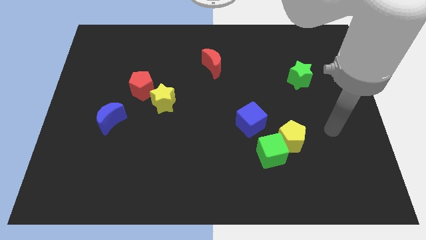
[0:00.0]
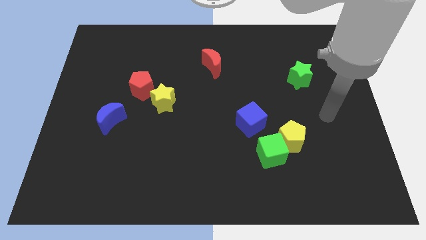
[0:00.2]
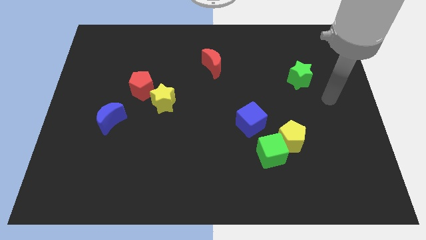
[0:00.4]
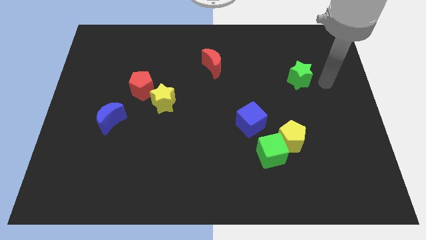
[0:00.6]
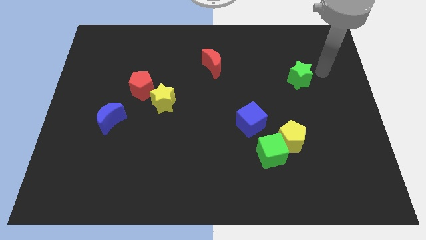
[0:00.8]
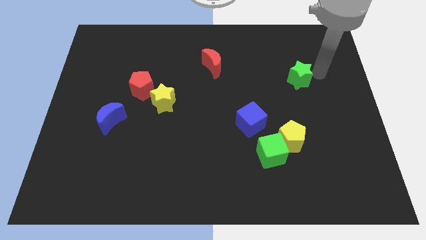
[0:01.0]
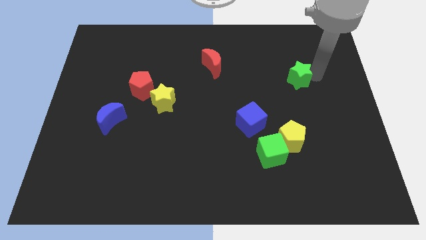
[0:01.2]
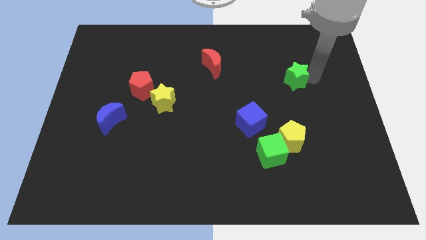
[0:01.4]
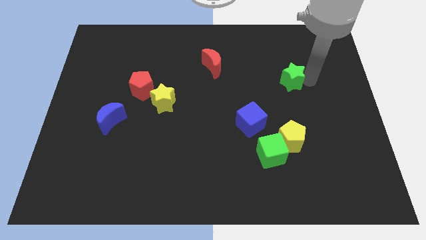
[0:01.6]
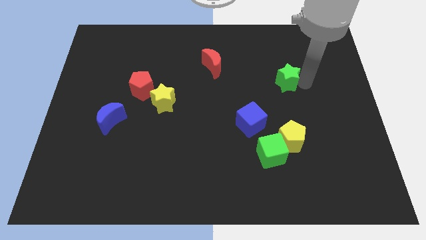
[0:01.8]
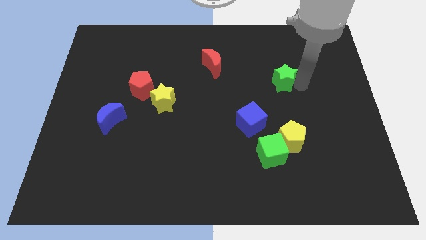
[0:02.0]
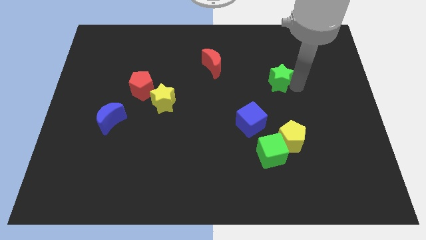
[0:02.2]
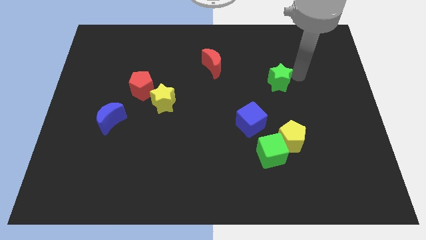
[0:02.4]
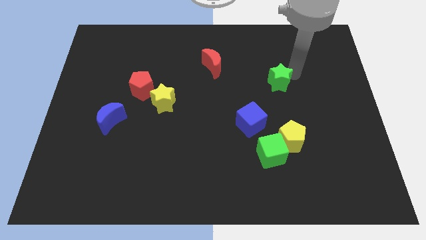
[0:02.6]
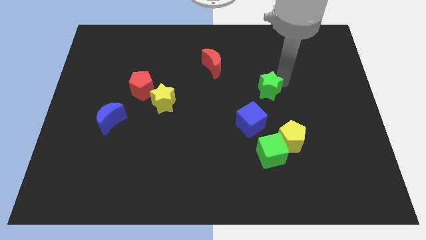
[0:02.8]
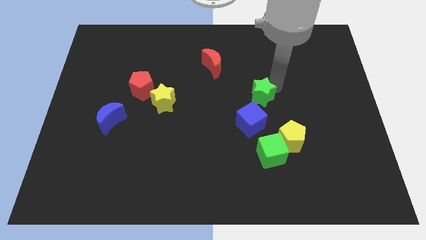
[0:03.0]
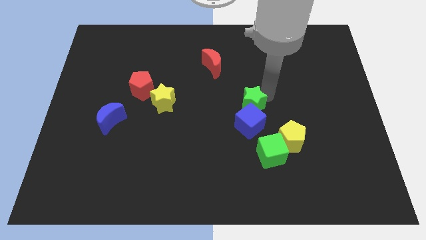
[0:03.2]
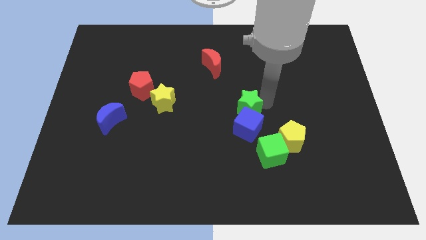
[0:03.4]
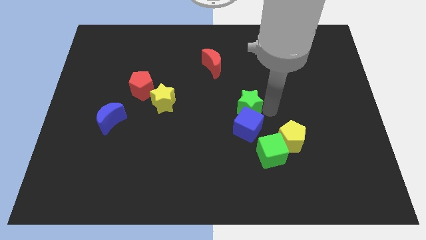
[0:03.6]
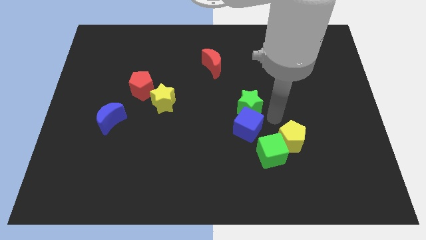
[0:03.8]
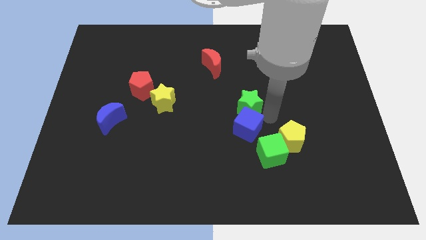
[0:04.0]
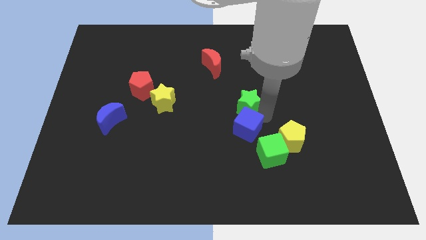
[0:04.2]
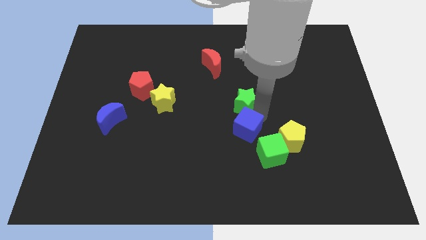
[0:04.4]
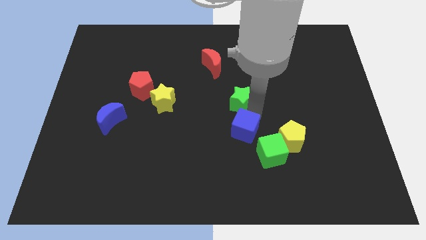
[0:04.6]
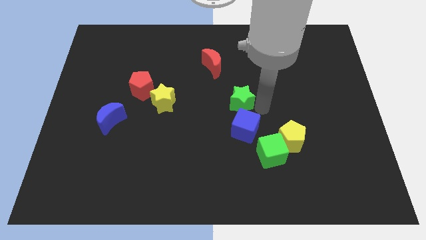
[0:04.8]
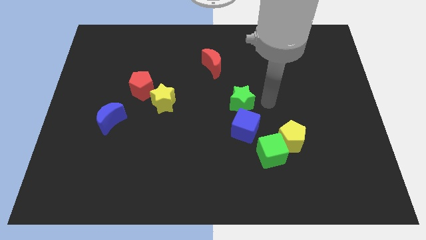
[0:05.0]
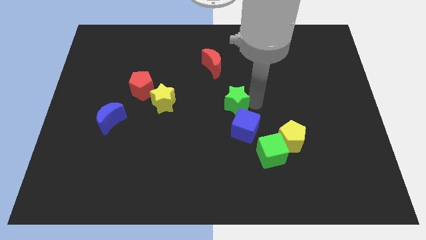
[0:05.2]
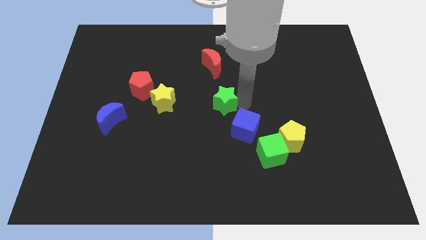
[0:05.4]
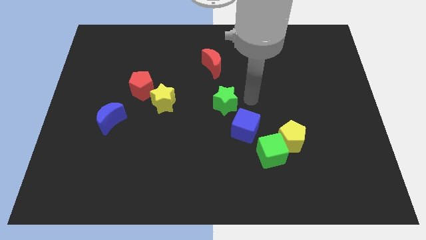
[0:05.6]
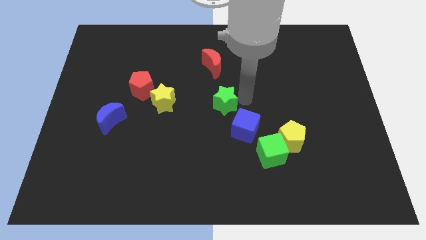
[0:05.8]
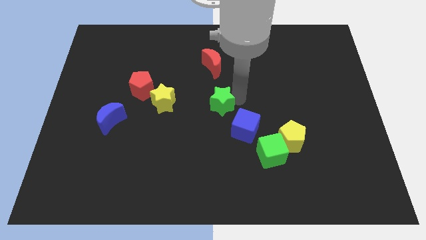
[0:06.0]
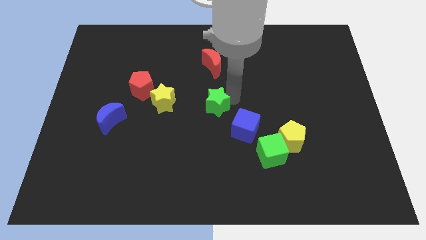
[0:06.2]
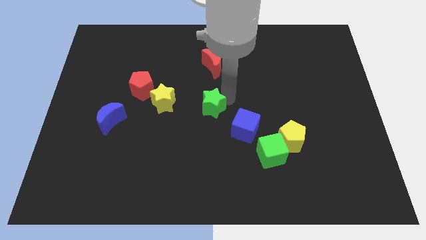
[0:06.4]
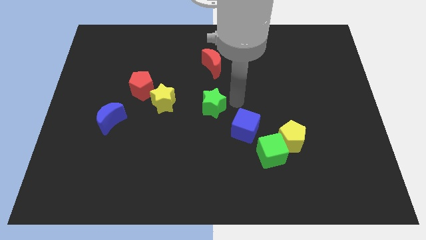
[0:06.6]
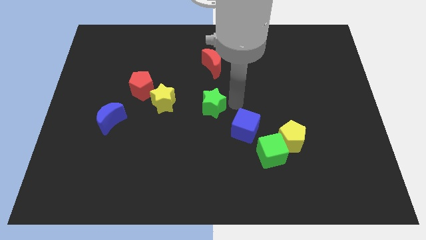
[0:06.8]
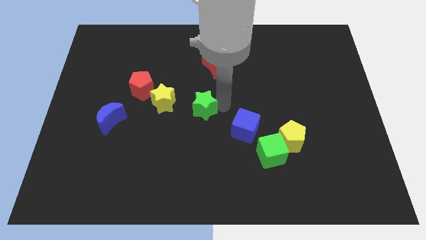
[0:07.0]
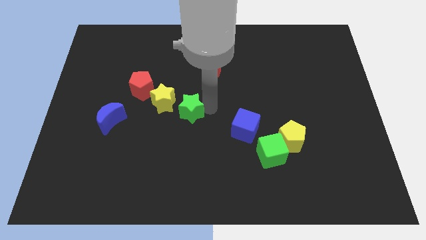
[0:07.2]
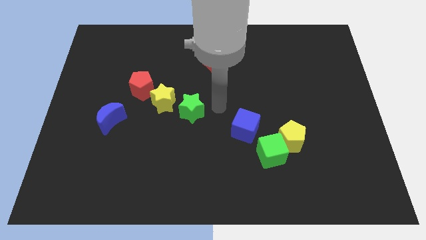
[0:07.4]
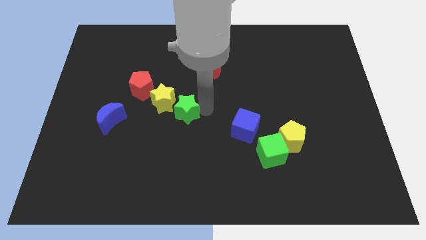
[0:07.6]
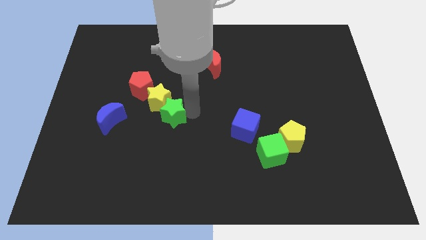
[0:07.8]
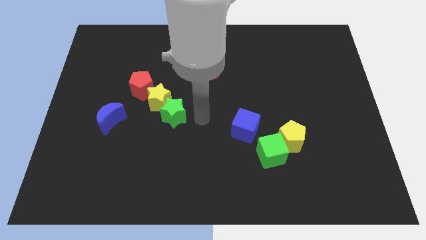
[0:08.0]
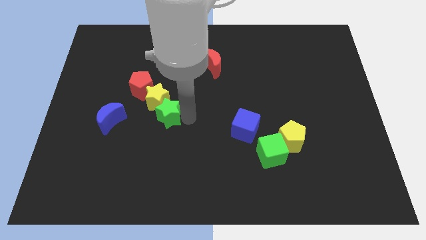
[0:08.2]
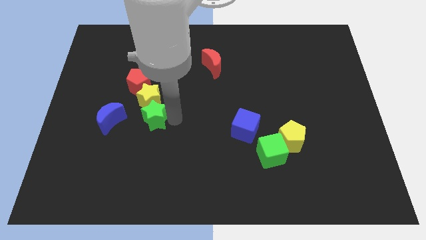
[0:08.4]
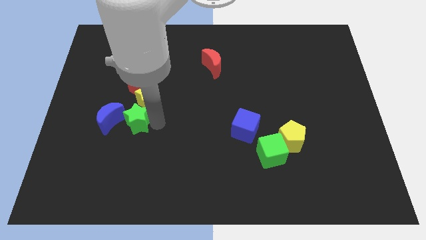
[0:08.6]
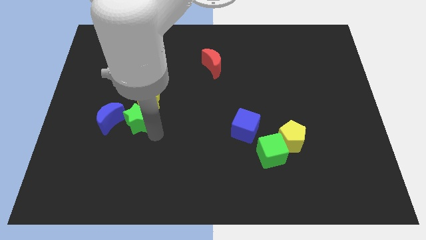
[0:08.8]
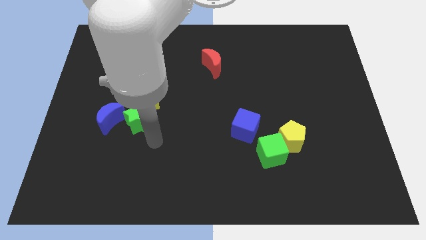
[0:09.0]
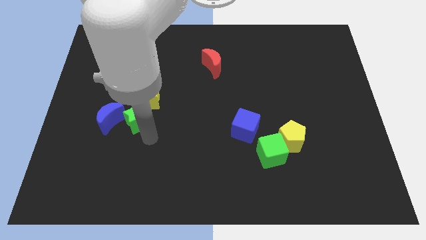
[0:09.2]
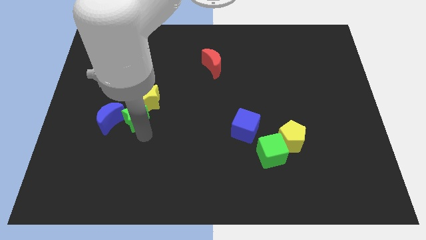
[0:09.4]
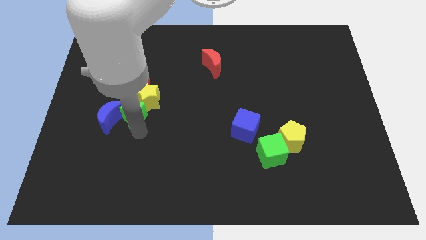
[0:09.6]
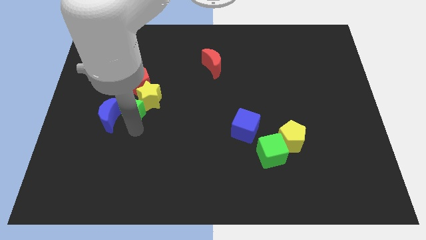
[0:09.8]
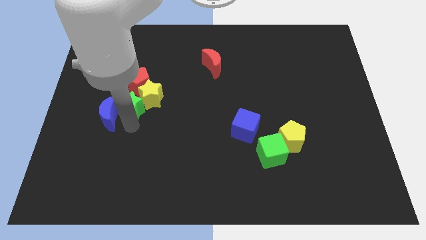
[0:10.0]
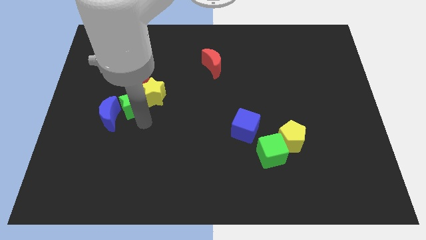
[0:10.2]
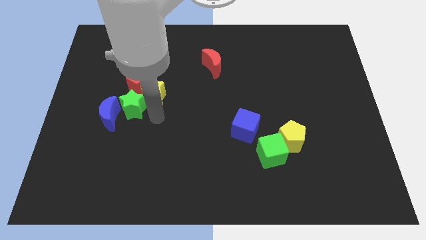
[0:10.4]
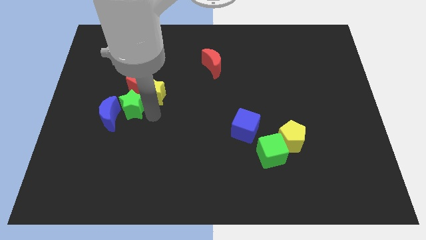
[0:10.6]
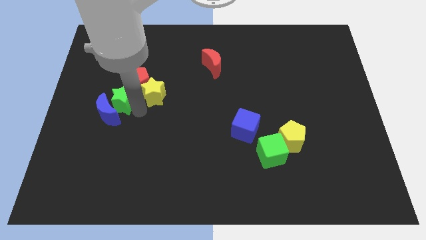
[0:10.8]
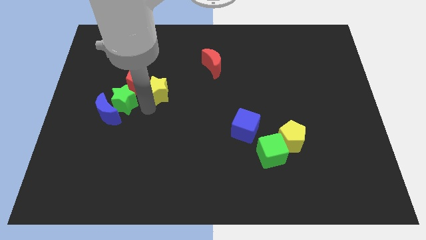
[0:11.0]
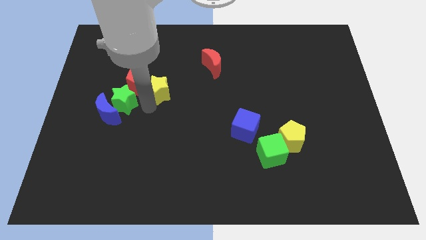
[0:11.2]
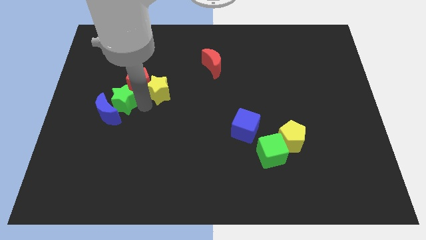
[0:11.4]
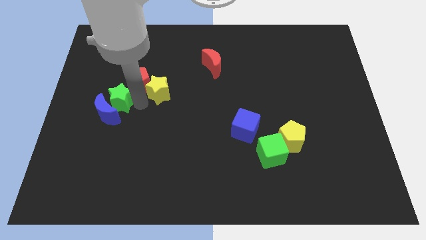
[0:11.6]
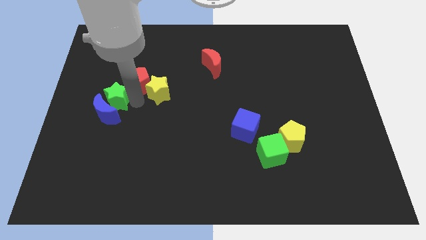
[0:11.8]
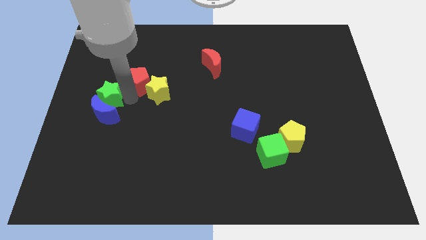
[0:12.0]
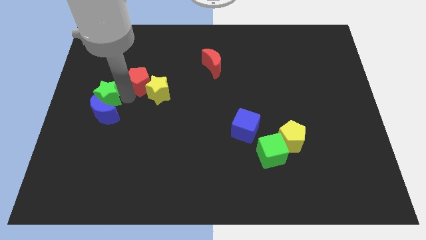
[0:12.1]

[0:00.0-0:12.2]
slide the green star to the left side of the board
